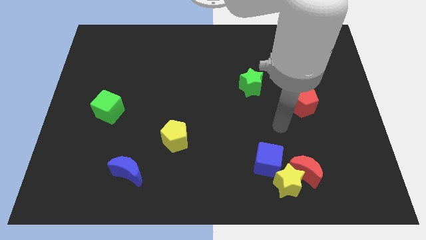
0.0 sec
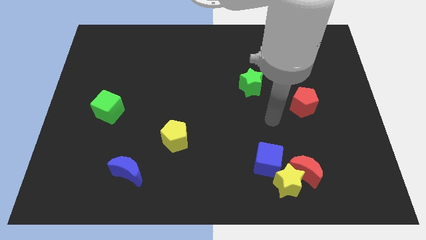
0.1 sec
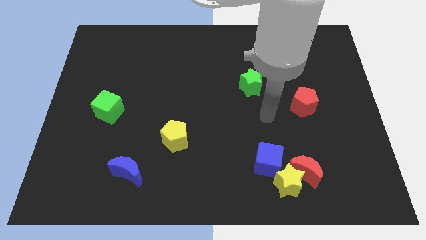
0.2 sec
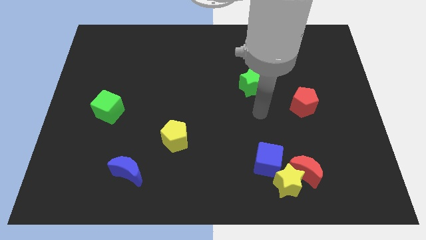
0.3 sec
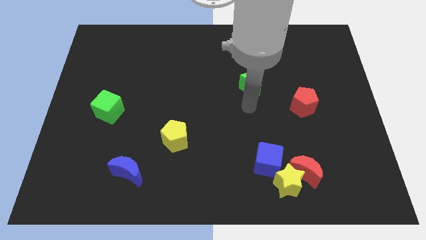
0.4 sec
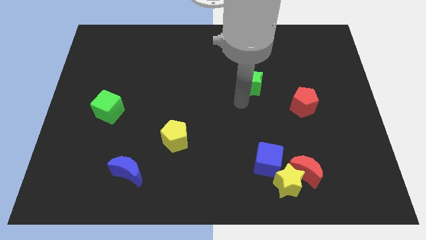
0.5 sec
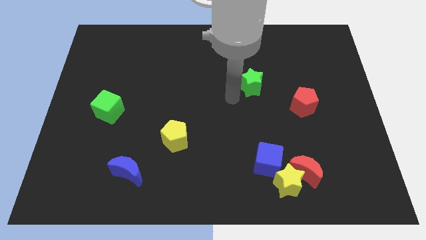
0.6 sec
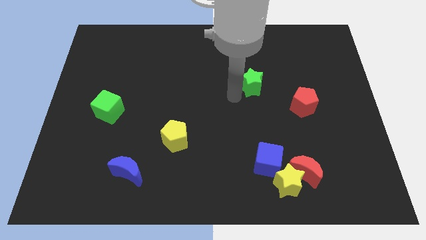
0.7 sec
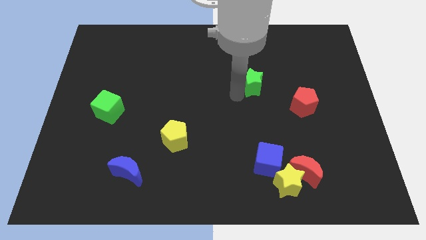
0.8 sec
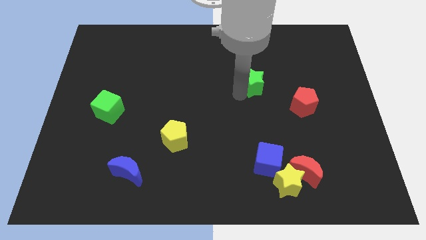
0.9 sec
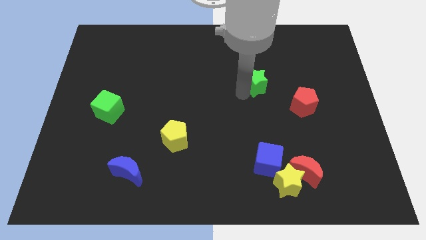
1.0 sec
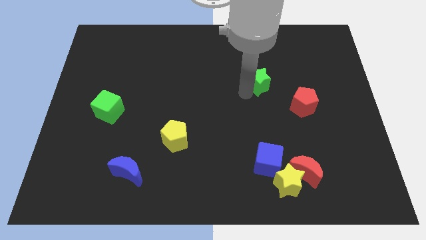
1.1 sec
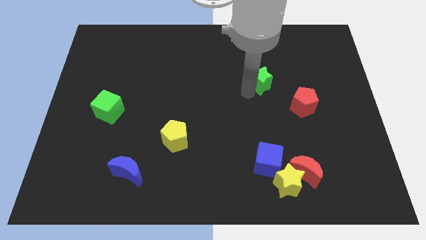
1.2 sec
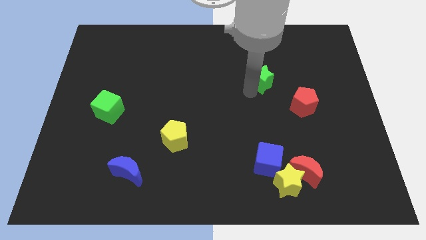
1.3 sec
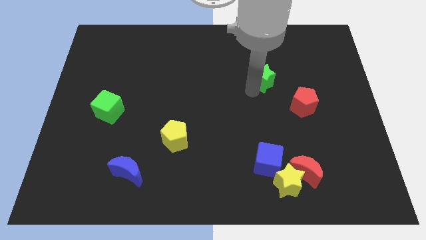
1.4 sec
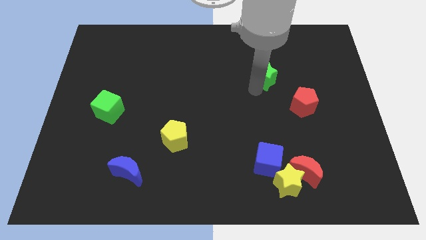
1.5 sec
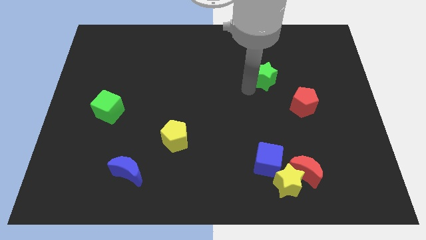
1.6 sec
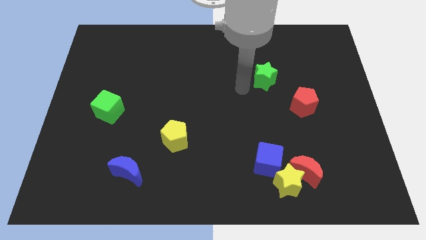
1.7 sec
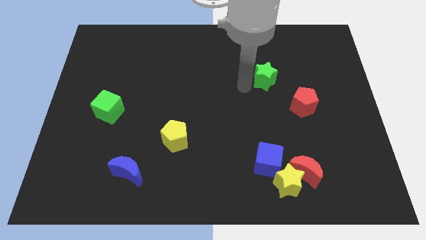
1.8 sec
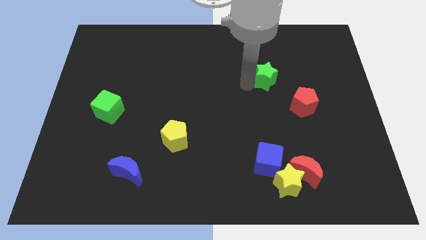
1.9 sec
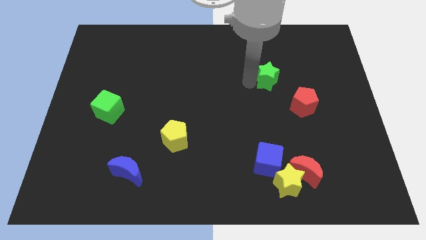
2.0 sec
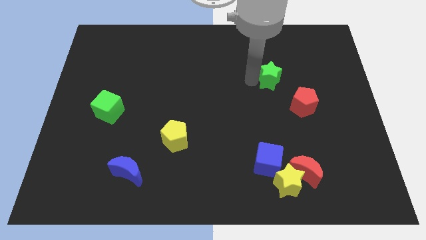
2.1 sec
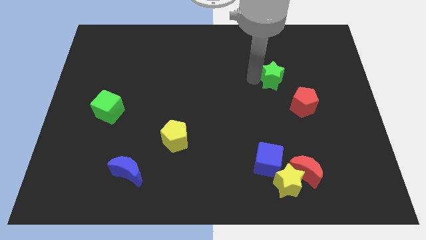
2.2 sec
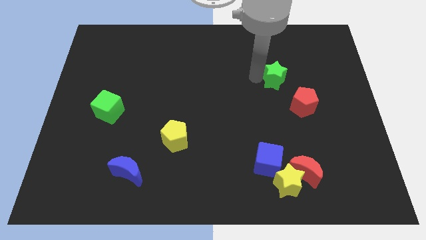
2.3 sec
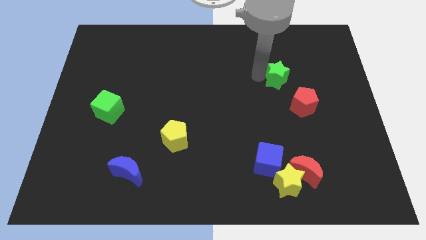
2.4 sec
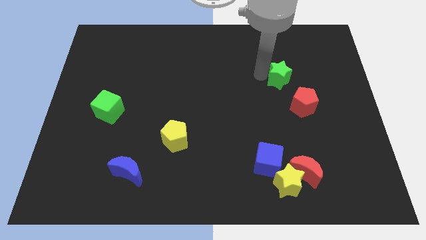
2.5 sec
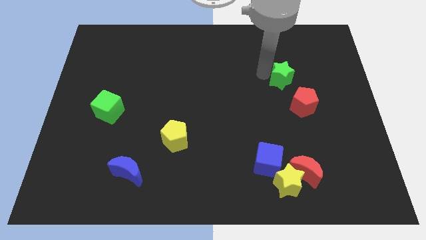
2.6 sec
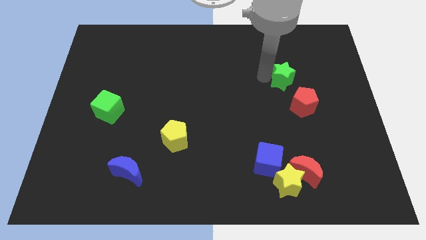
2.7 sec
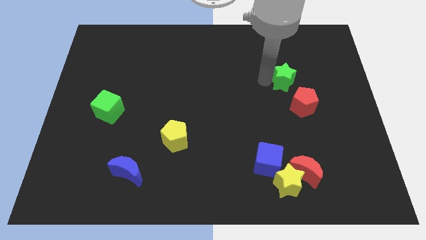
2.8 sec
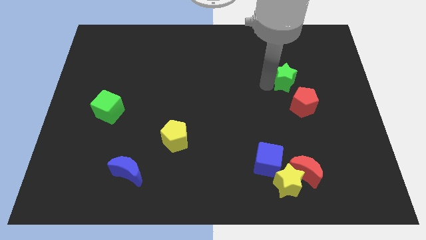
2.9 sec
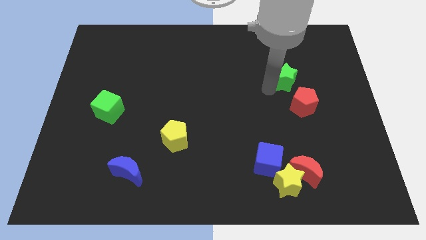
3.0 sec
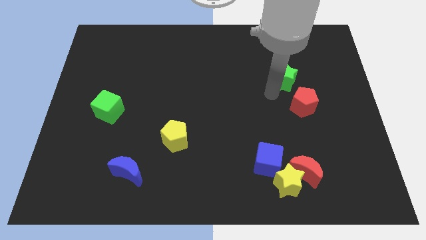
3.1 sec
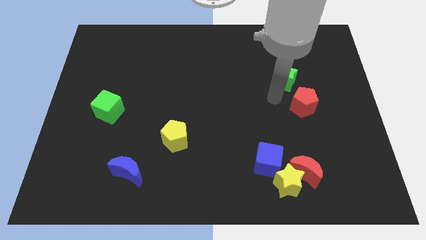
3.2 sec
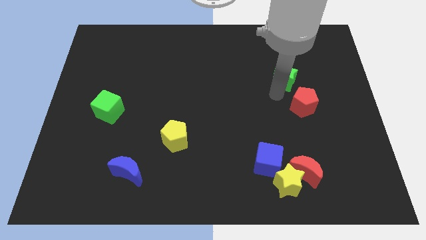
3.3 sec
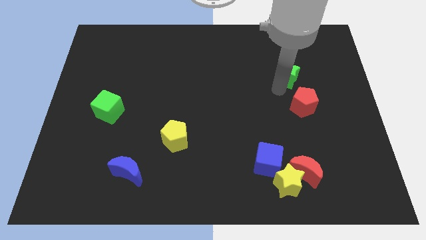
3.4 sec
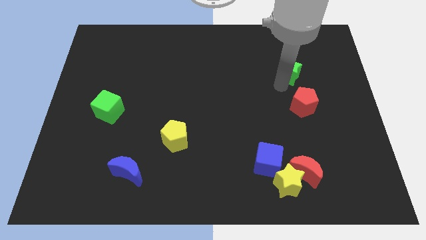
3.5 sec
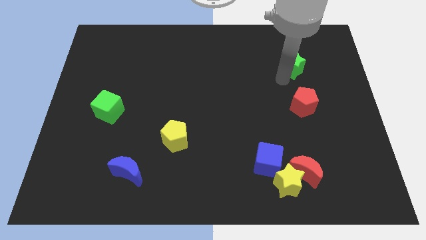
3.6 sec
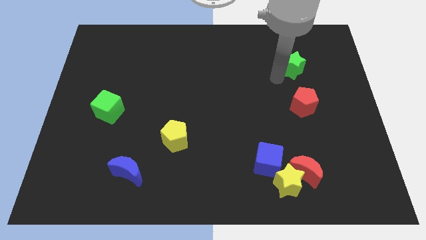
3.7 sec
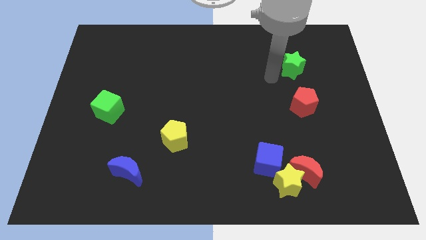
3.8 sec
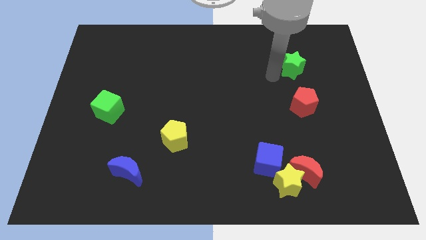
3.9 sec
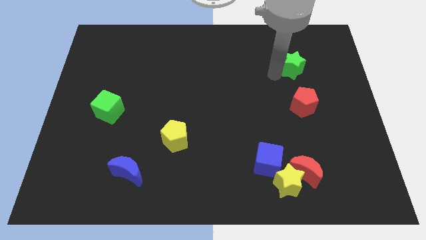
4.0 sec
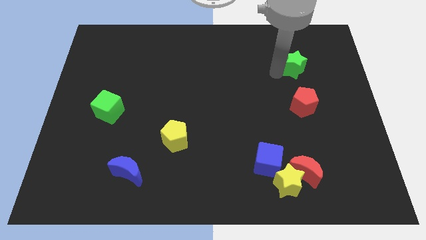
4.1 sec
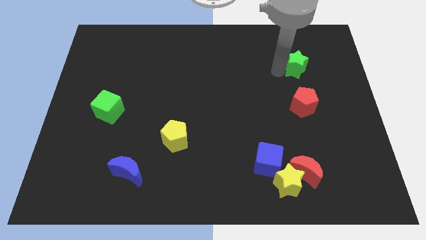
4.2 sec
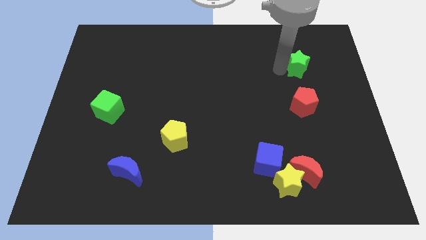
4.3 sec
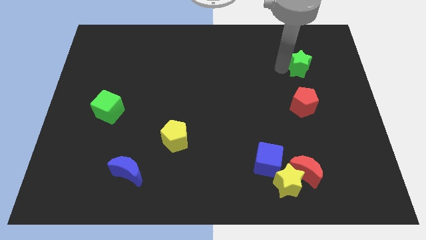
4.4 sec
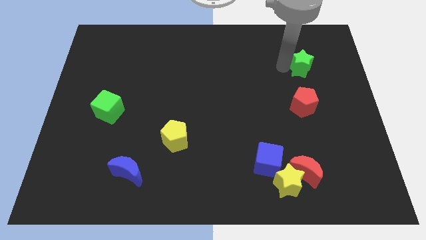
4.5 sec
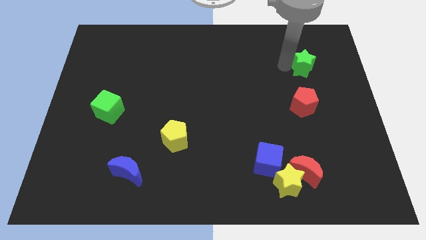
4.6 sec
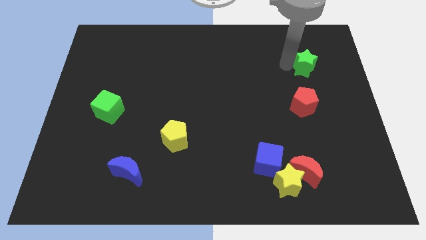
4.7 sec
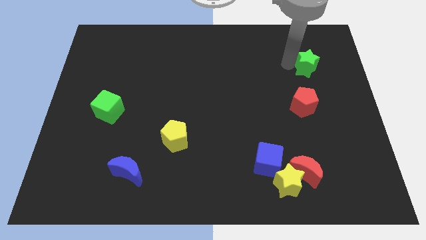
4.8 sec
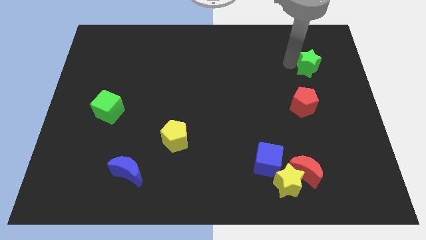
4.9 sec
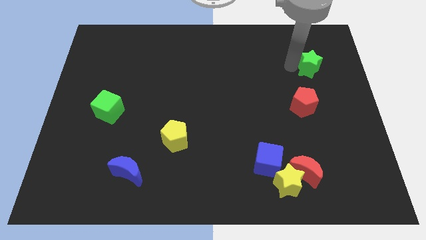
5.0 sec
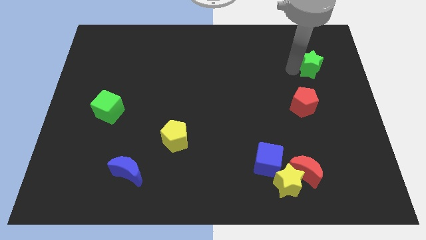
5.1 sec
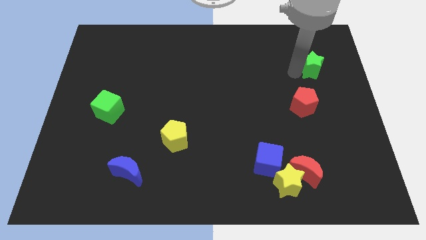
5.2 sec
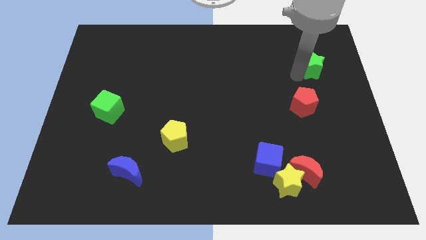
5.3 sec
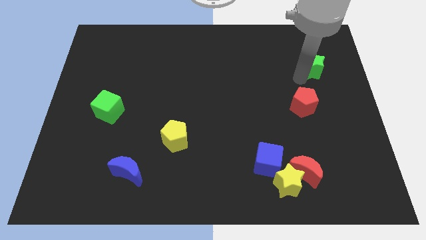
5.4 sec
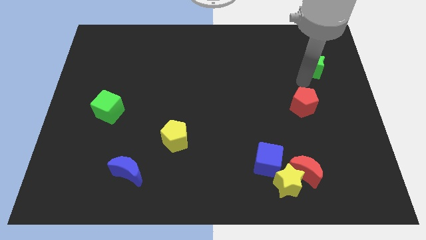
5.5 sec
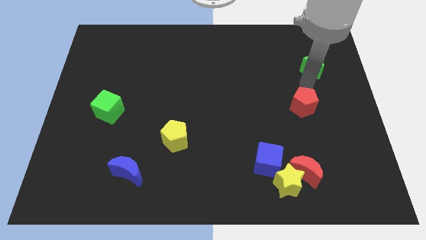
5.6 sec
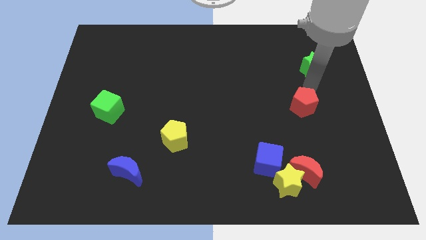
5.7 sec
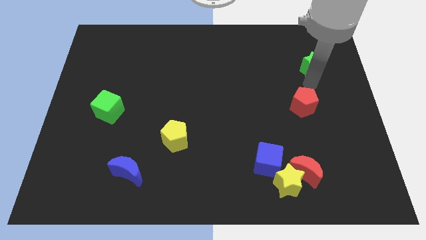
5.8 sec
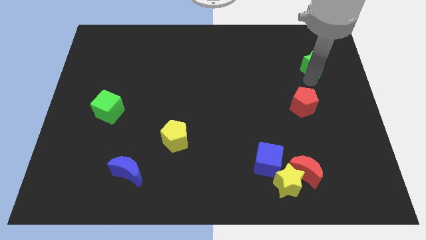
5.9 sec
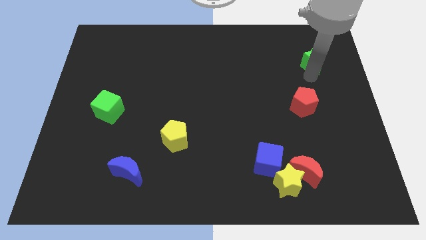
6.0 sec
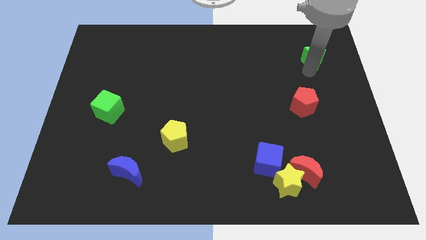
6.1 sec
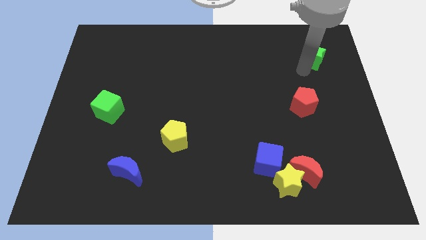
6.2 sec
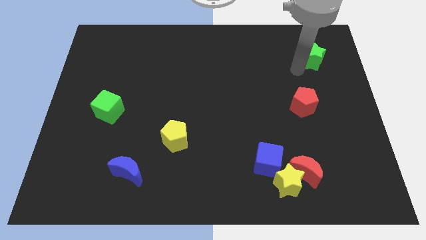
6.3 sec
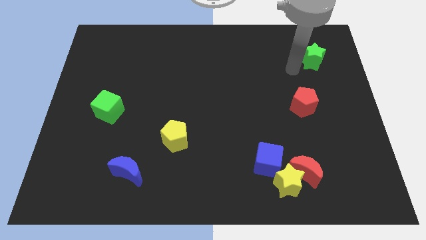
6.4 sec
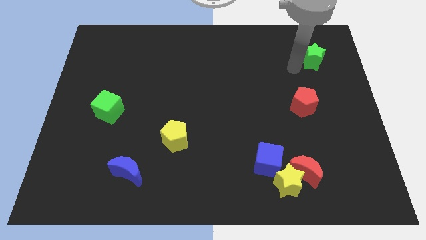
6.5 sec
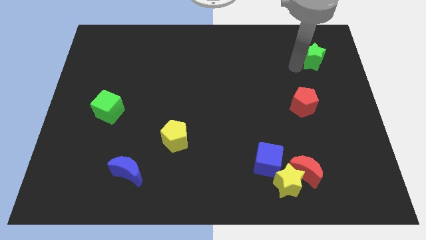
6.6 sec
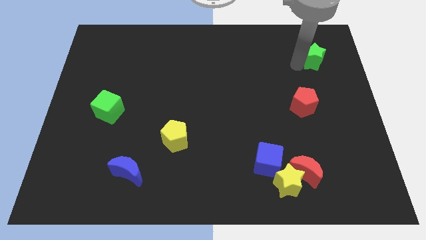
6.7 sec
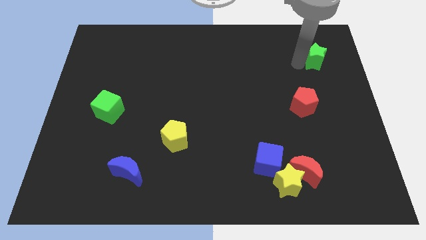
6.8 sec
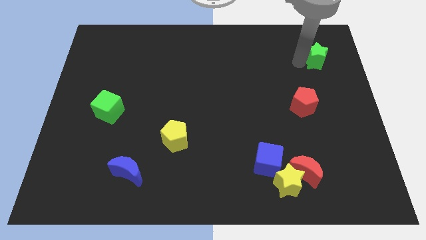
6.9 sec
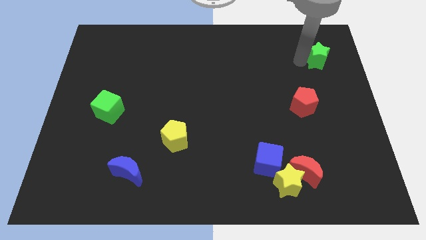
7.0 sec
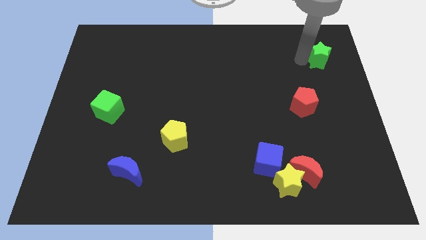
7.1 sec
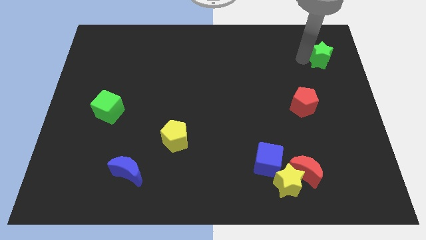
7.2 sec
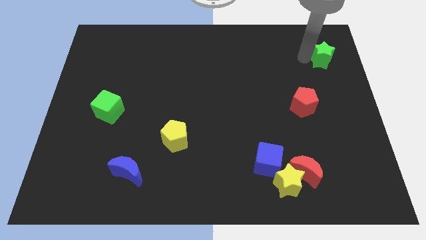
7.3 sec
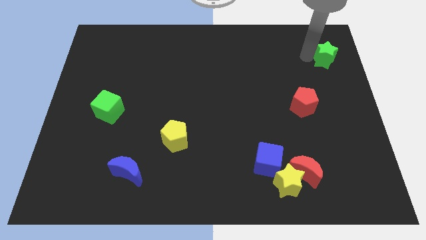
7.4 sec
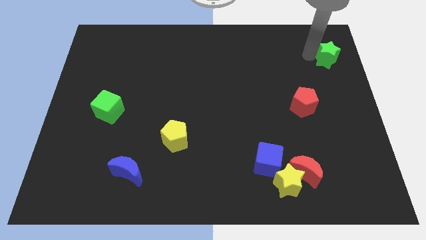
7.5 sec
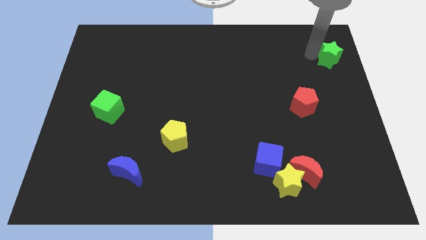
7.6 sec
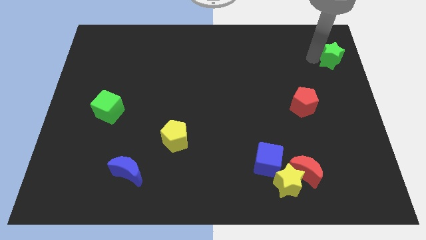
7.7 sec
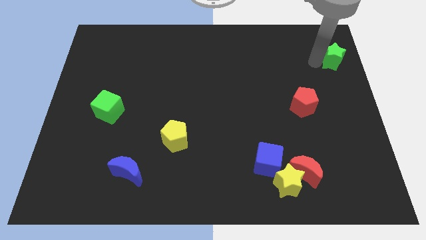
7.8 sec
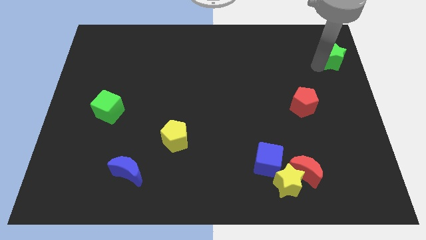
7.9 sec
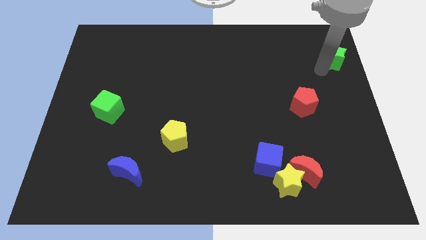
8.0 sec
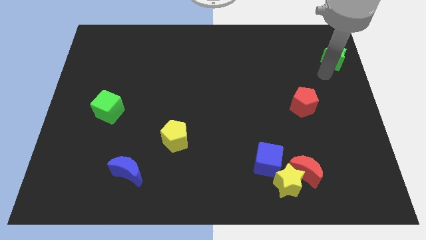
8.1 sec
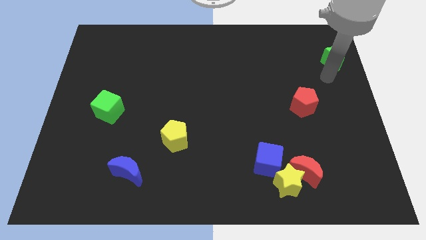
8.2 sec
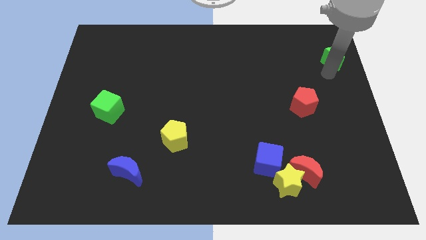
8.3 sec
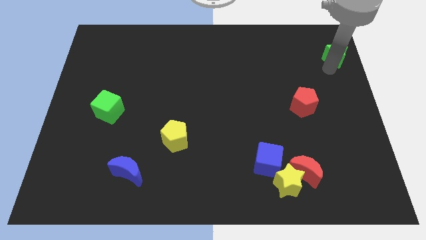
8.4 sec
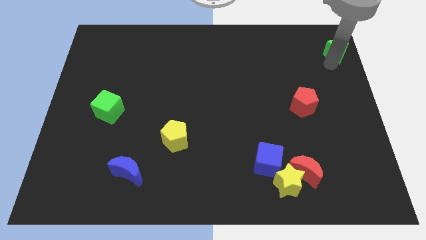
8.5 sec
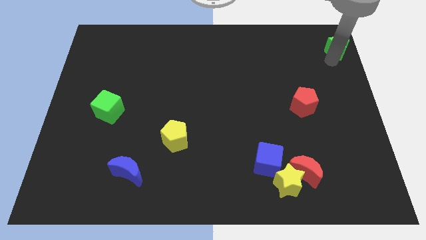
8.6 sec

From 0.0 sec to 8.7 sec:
slide the green star to the top right
